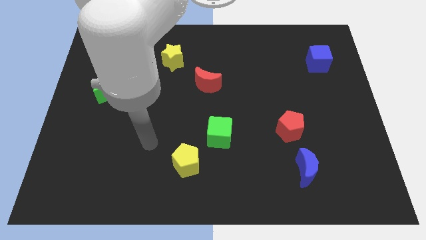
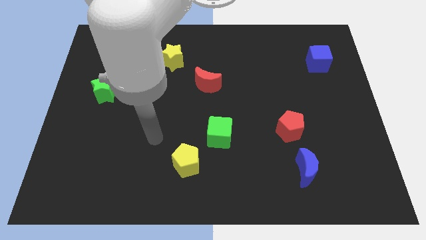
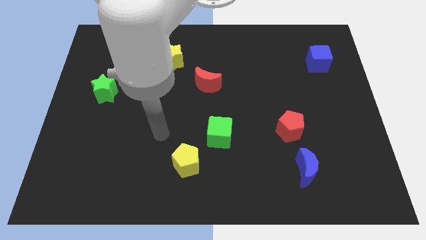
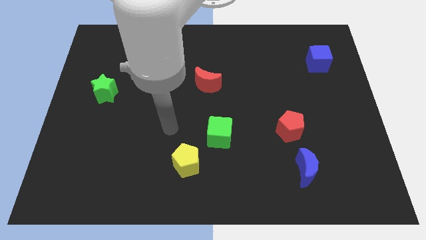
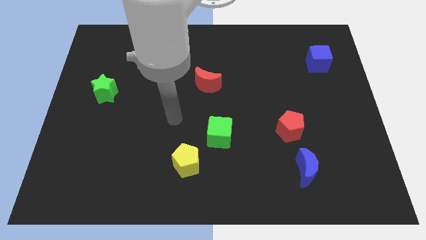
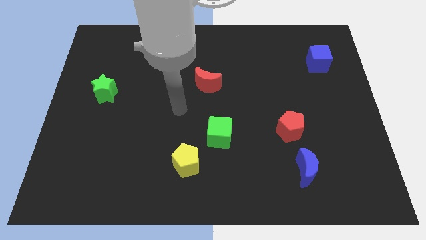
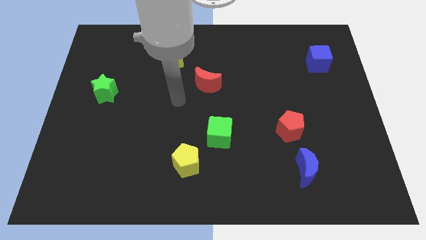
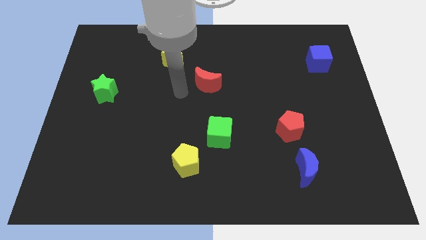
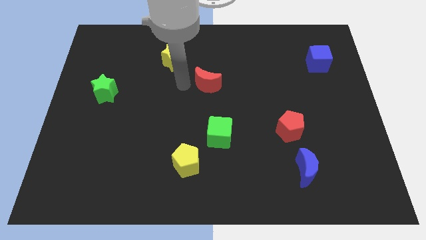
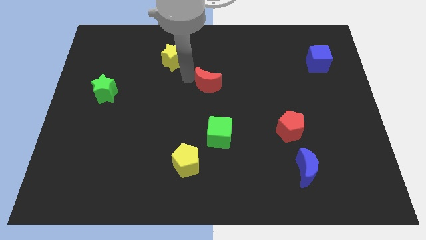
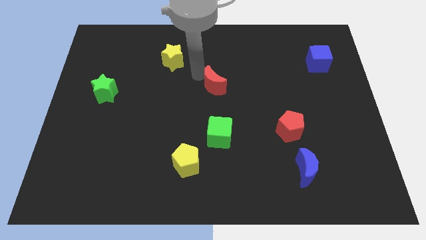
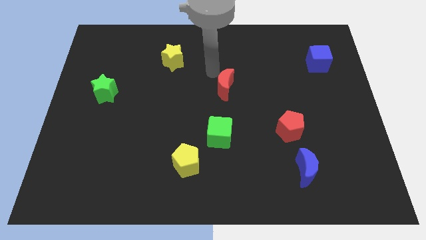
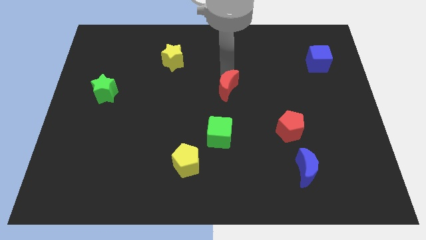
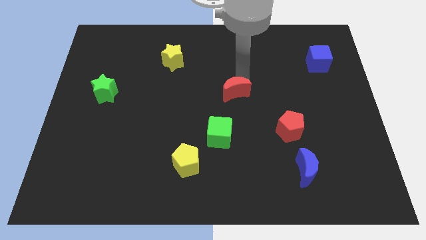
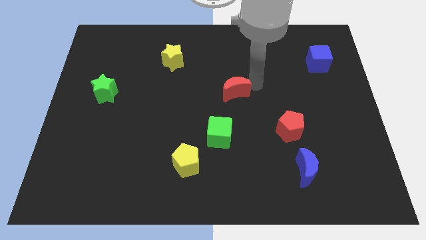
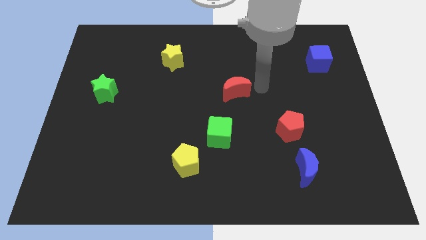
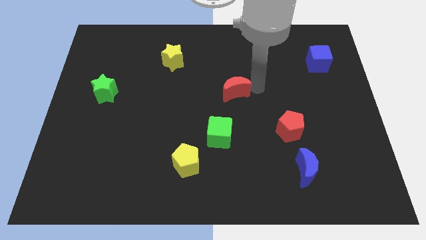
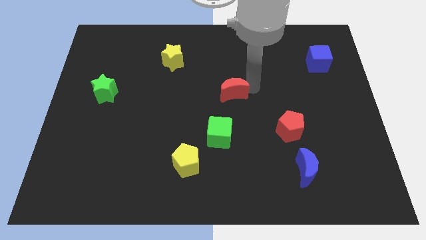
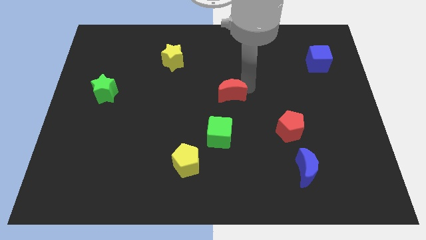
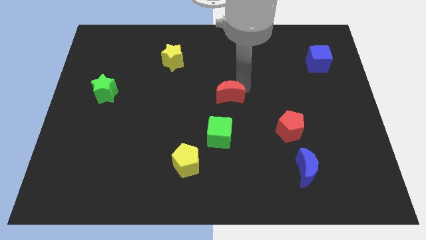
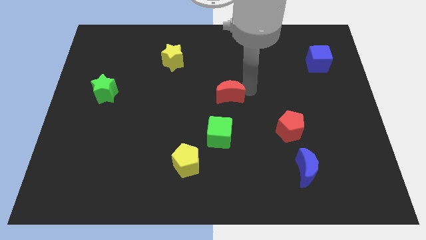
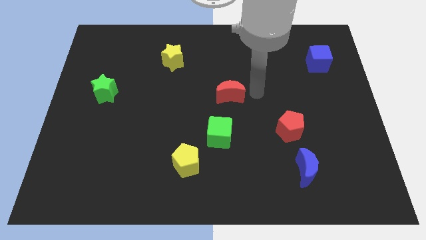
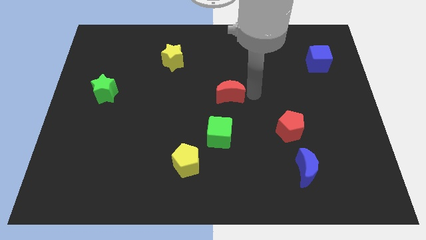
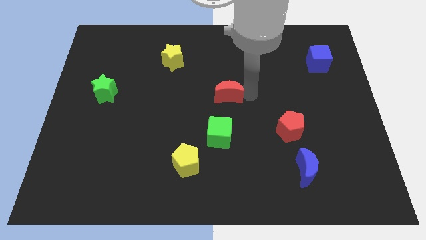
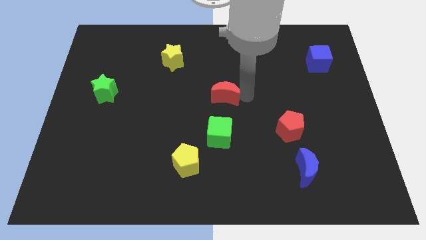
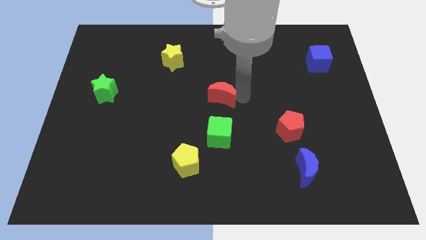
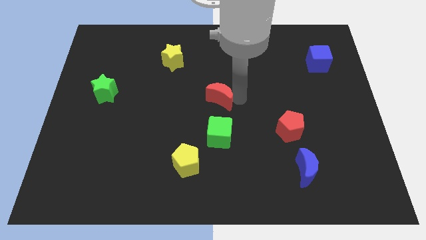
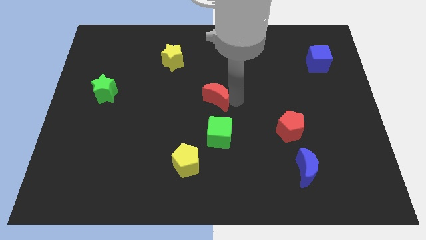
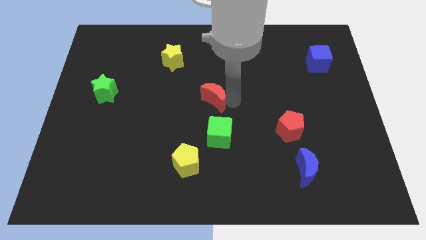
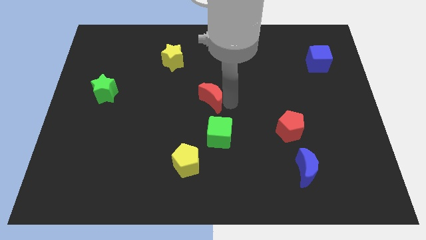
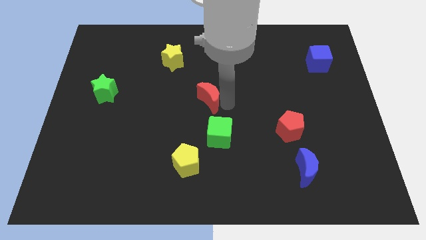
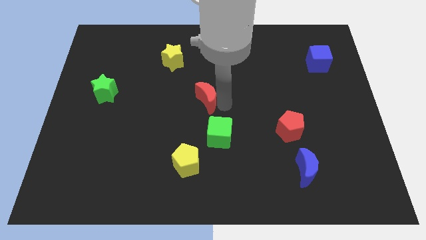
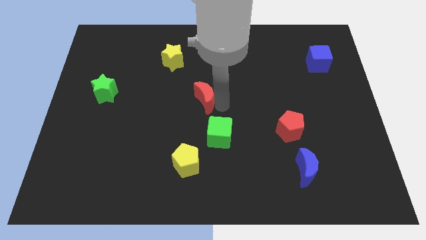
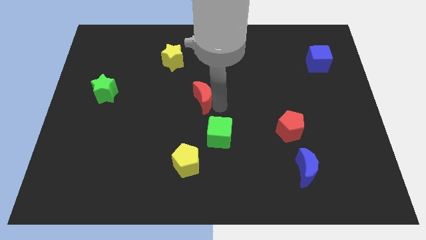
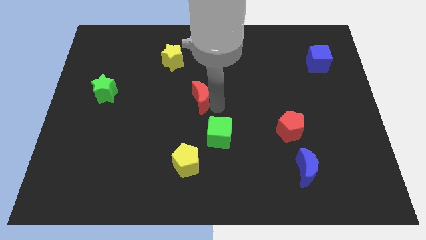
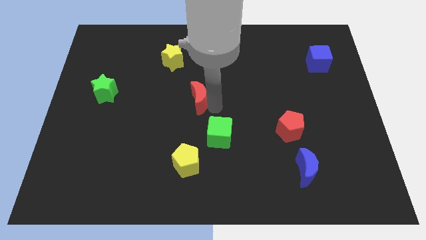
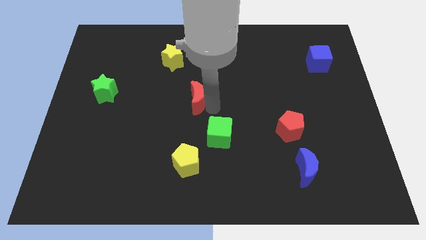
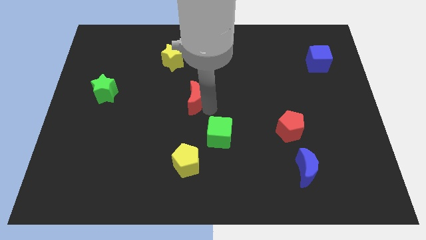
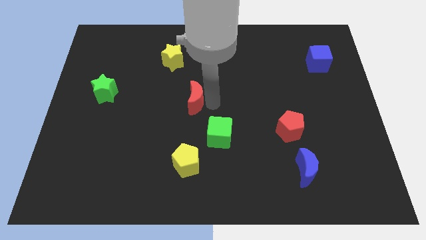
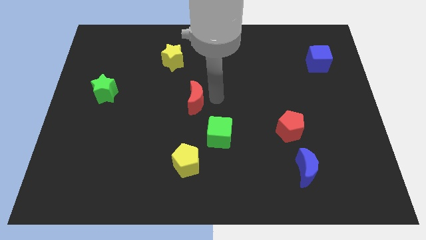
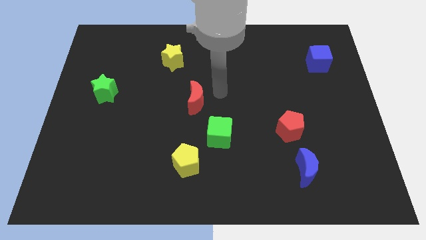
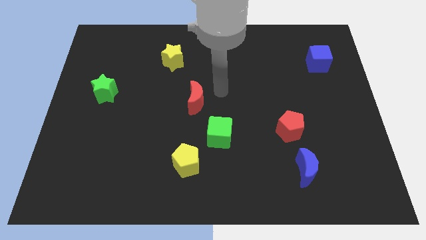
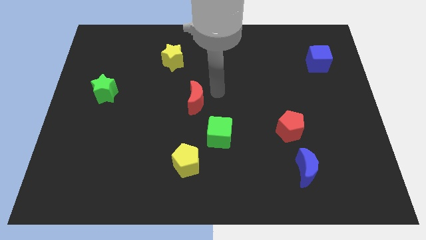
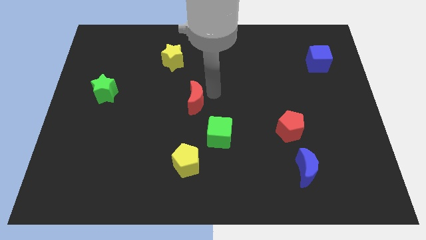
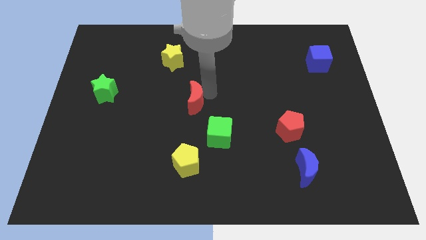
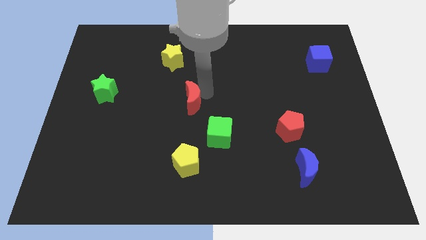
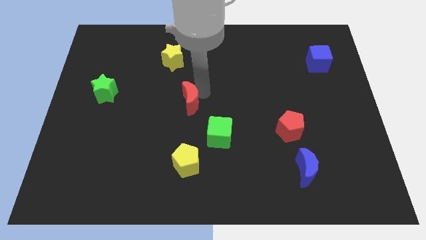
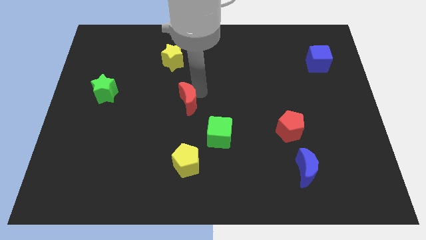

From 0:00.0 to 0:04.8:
slide the red moon slightly down and then to the left

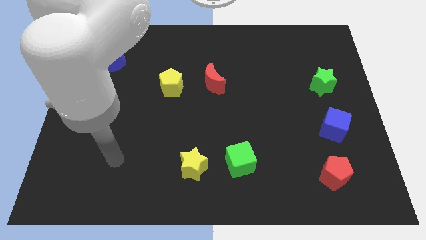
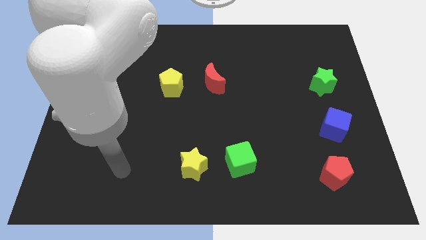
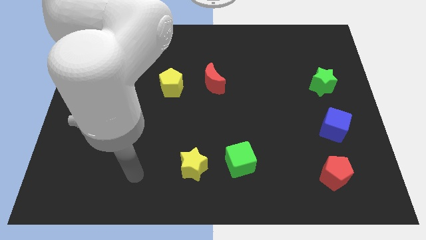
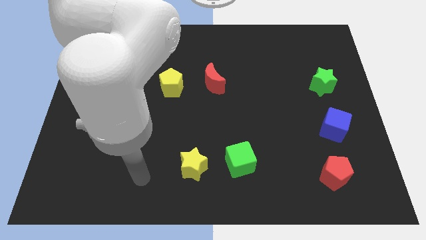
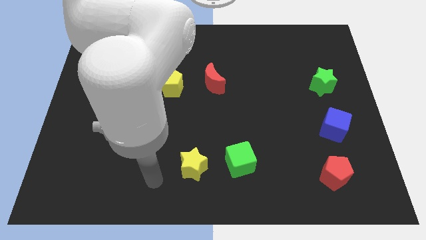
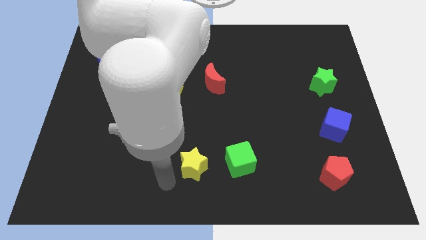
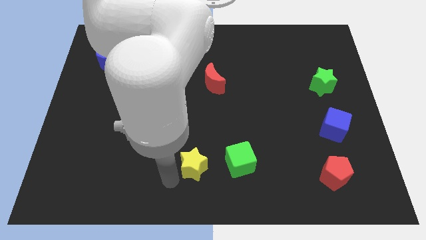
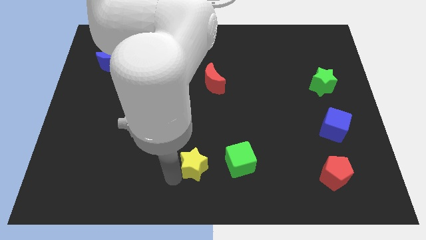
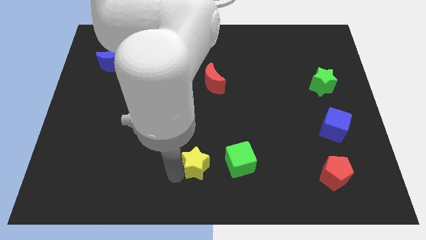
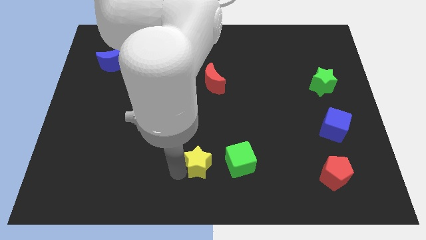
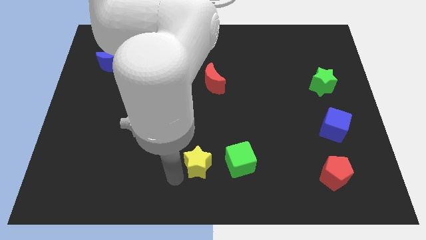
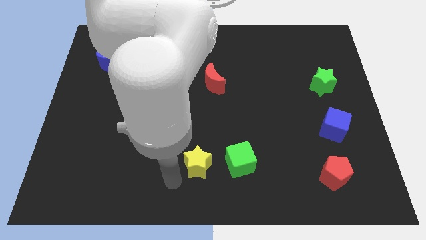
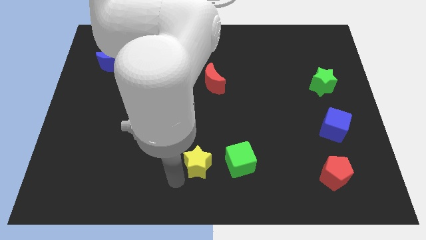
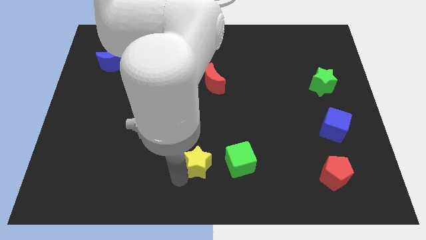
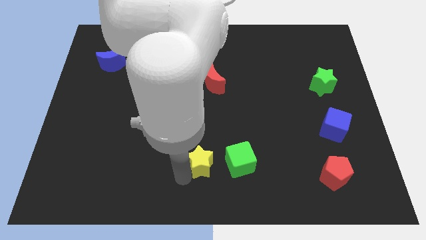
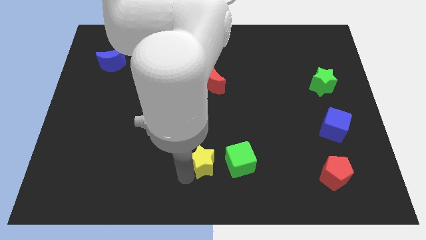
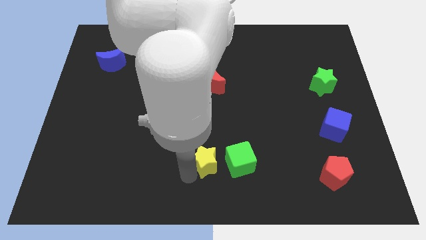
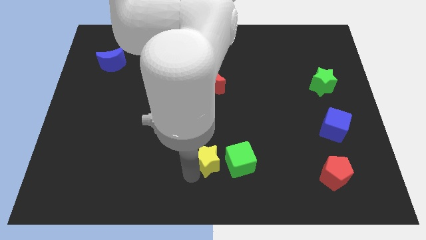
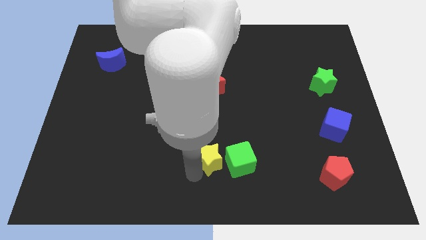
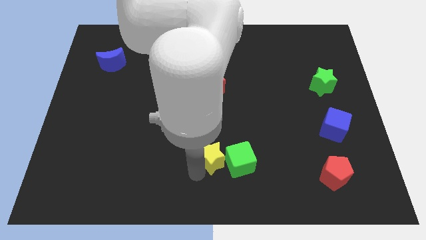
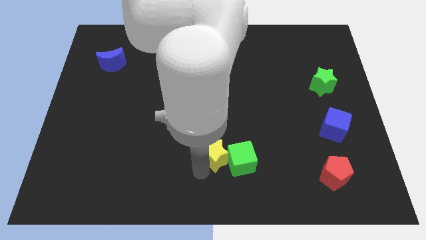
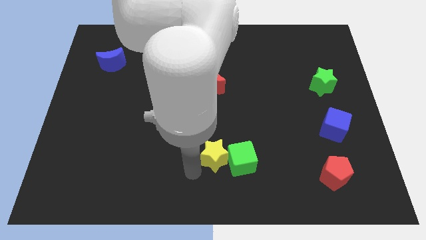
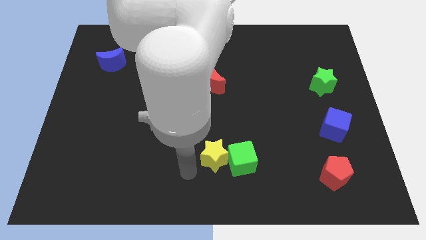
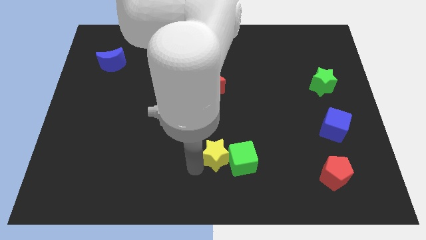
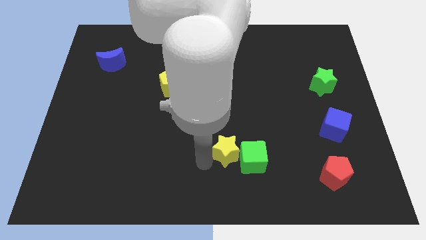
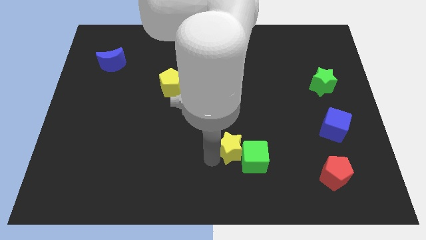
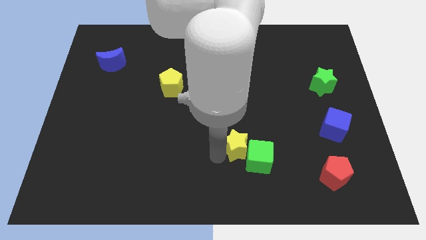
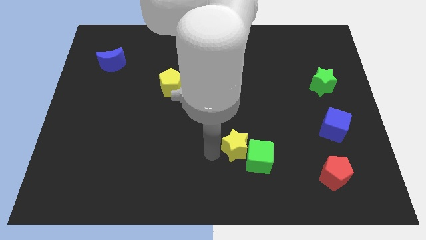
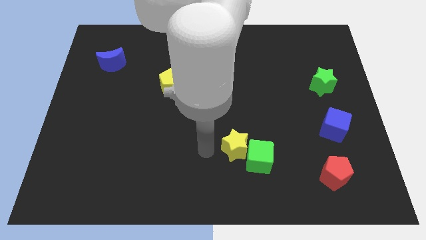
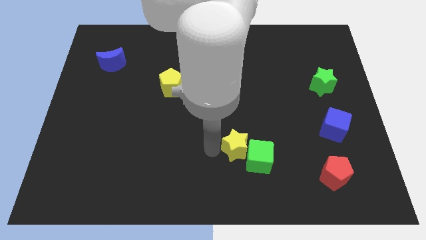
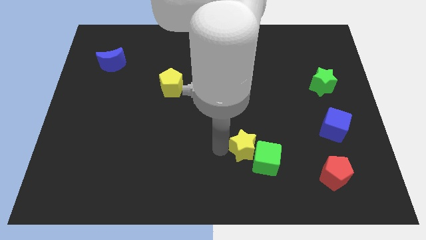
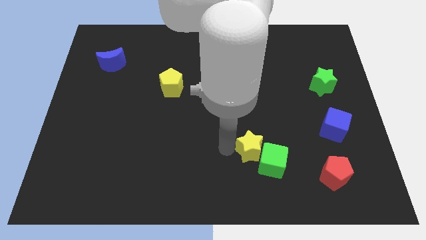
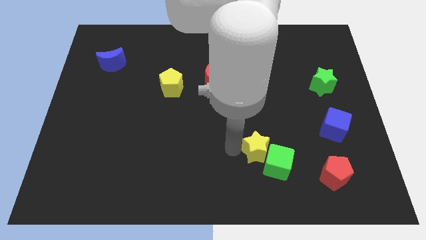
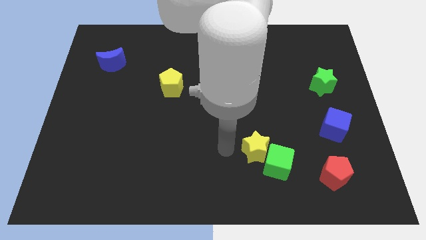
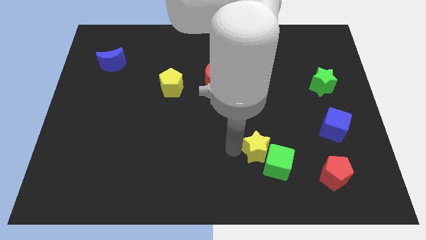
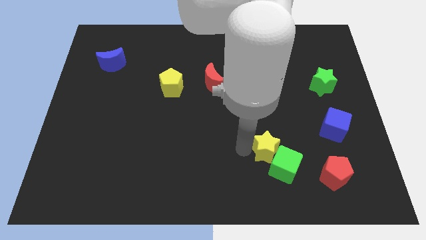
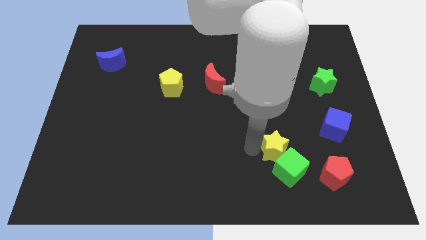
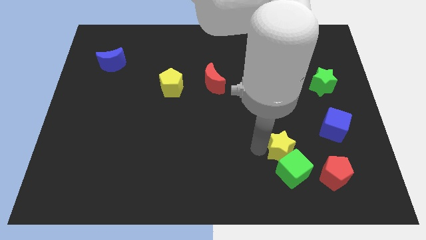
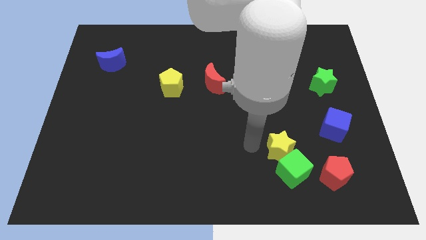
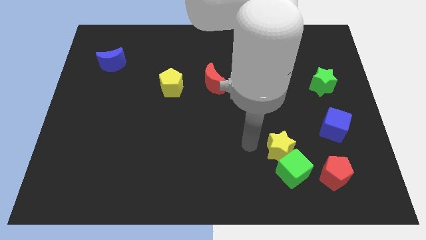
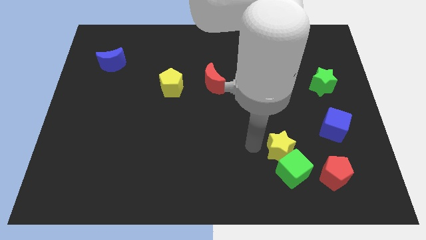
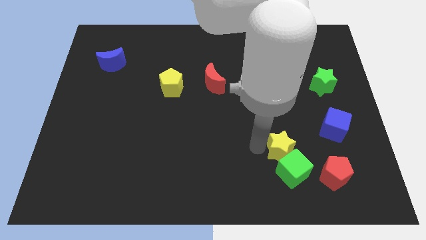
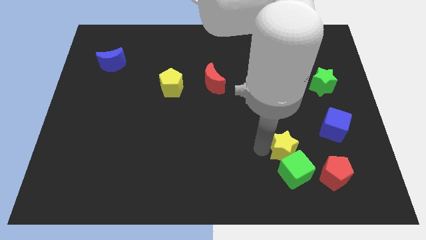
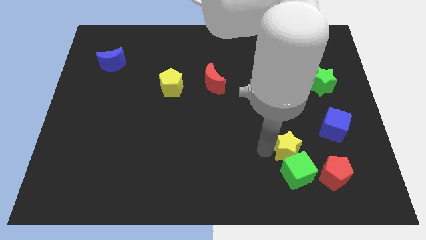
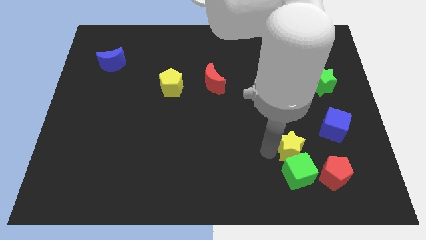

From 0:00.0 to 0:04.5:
push the yellow star right
